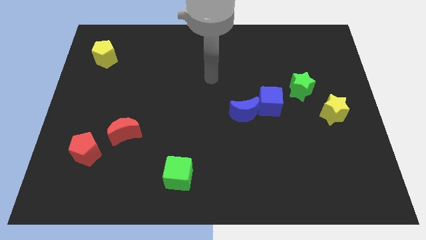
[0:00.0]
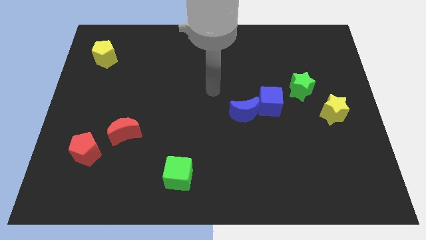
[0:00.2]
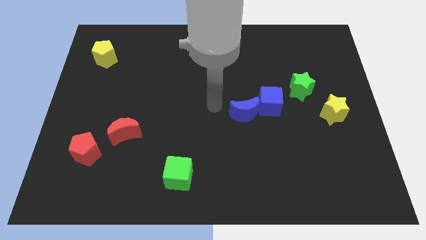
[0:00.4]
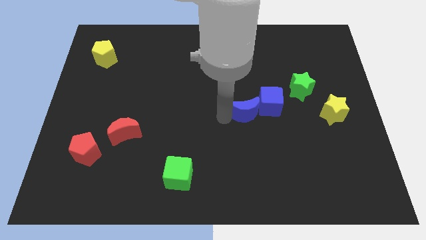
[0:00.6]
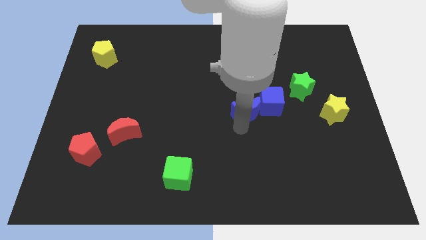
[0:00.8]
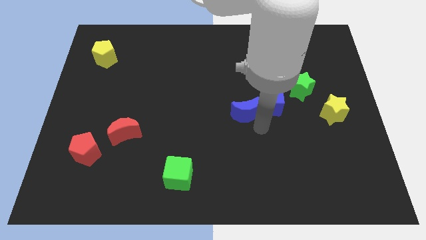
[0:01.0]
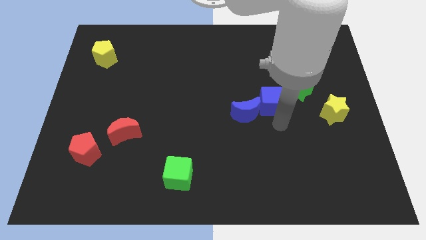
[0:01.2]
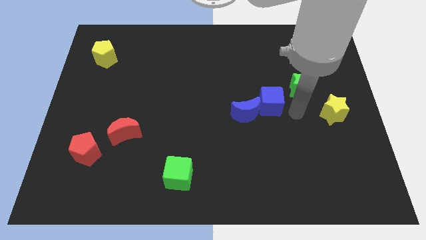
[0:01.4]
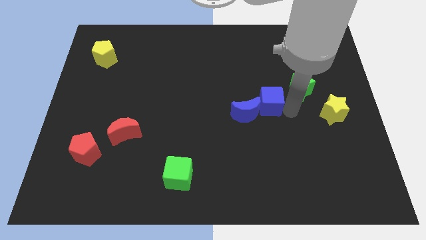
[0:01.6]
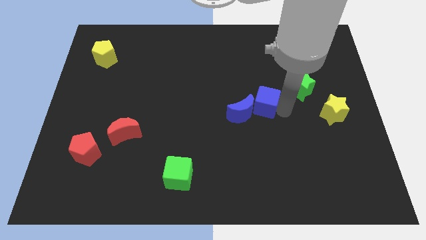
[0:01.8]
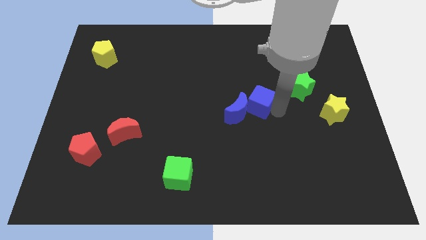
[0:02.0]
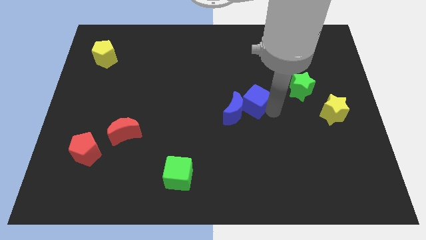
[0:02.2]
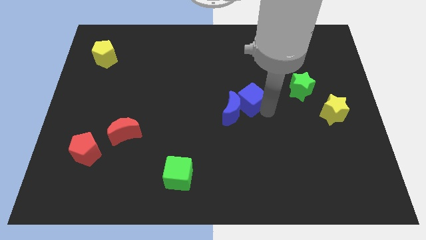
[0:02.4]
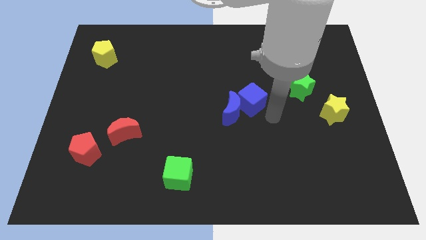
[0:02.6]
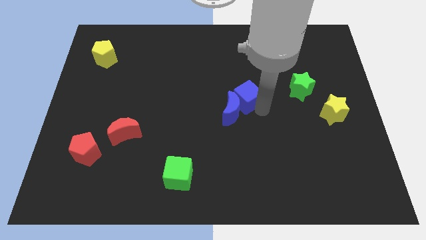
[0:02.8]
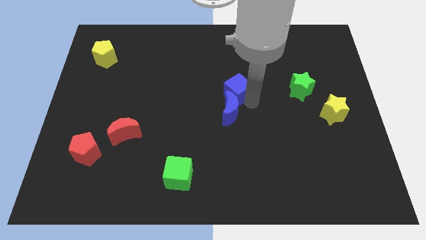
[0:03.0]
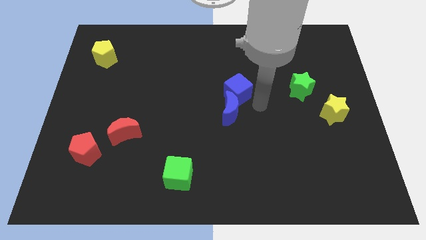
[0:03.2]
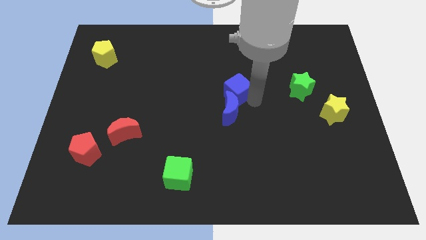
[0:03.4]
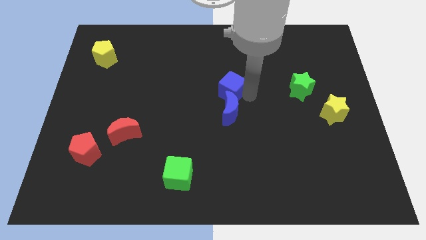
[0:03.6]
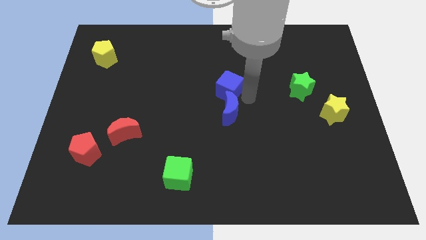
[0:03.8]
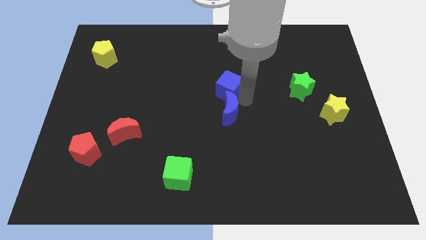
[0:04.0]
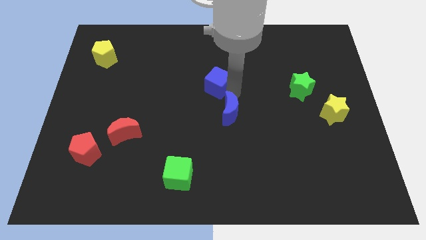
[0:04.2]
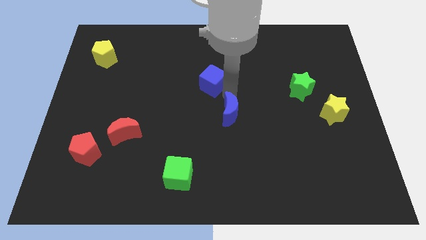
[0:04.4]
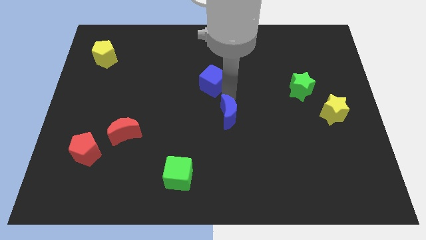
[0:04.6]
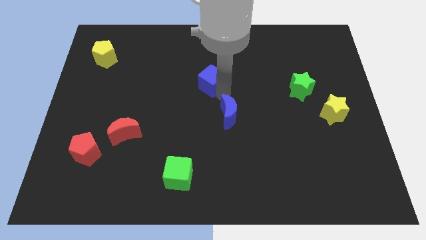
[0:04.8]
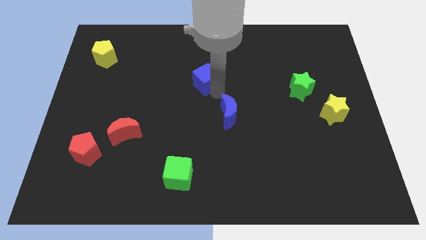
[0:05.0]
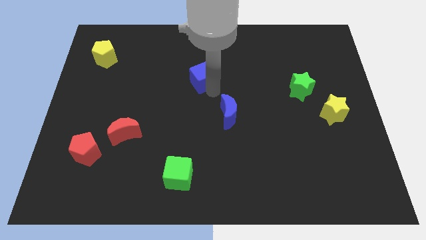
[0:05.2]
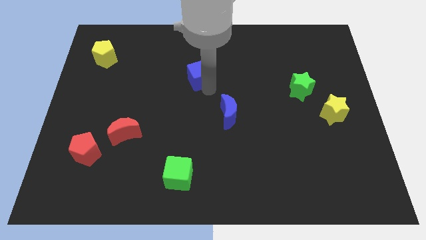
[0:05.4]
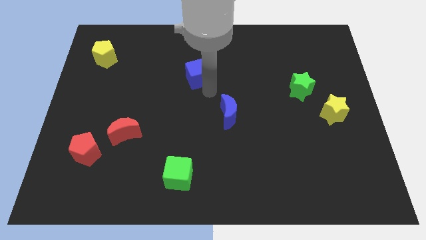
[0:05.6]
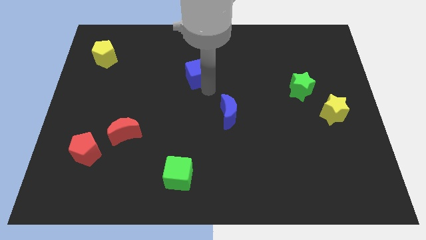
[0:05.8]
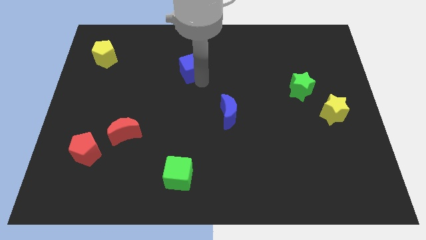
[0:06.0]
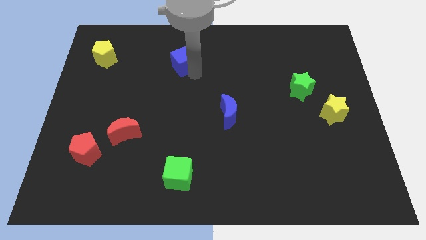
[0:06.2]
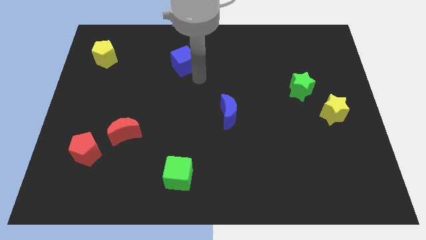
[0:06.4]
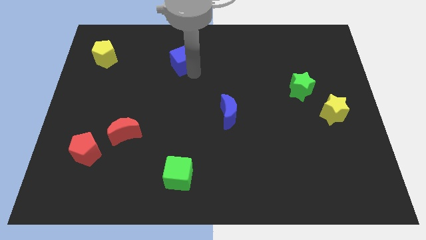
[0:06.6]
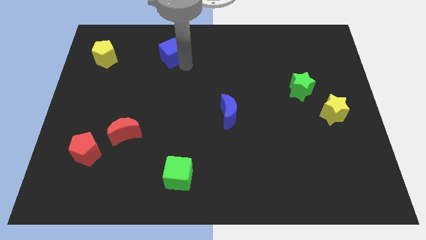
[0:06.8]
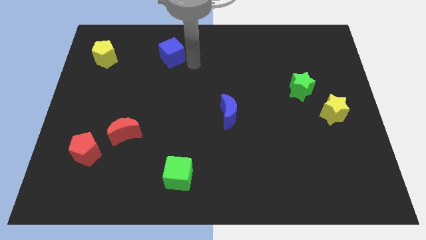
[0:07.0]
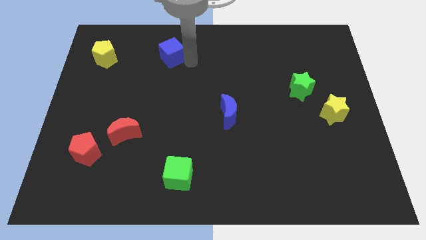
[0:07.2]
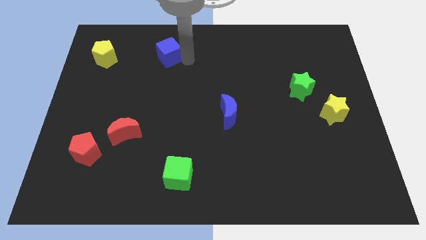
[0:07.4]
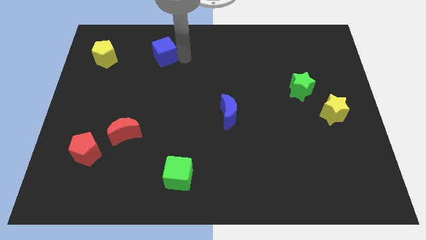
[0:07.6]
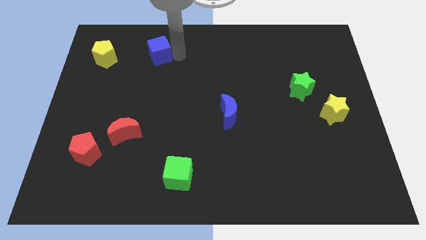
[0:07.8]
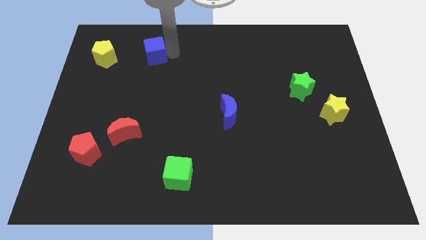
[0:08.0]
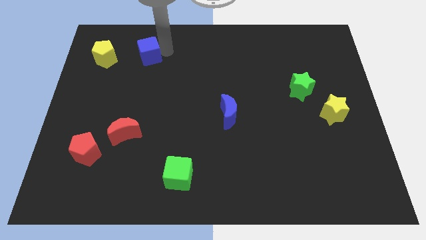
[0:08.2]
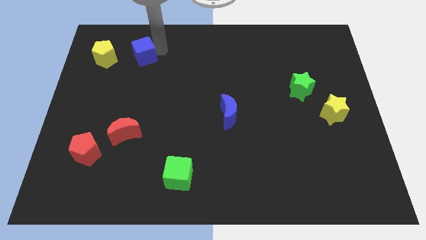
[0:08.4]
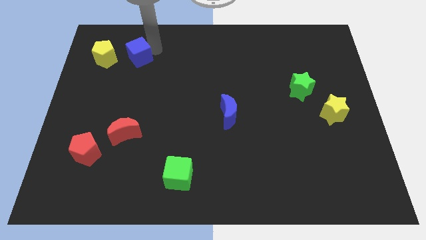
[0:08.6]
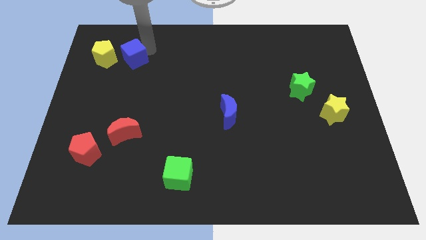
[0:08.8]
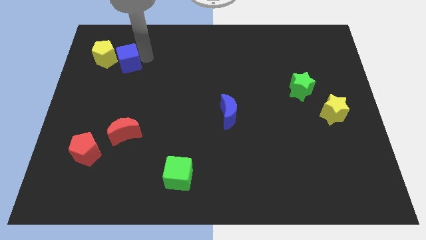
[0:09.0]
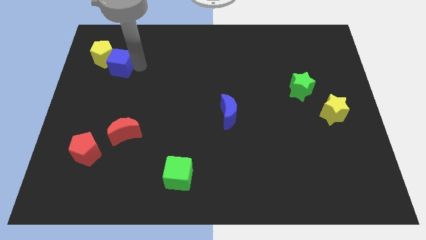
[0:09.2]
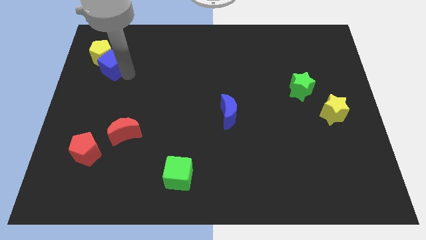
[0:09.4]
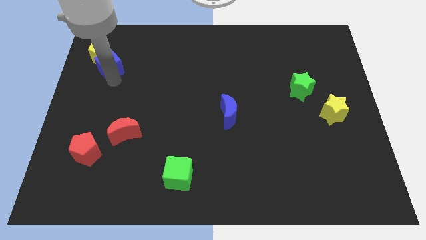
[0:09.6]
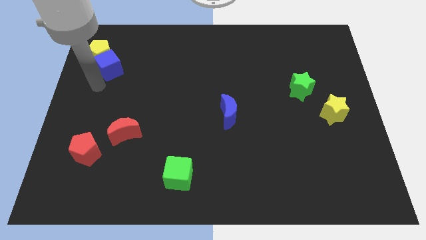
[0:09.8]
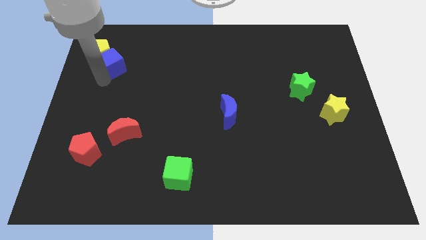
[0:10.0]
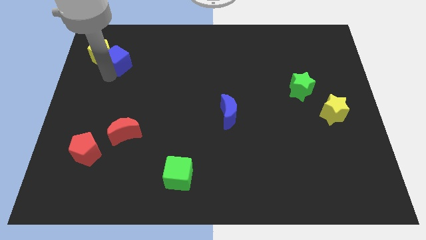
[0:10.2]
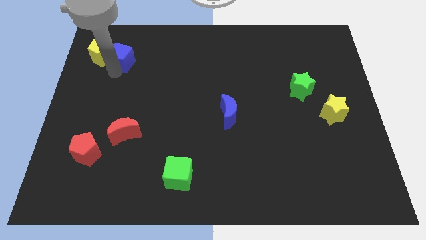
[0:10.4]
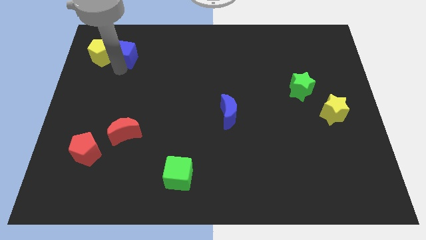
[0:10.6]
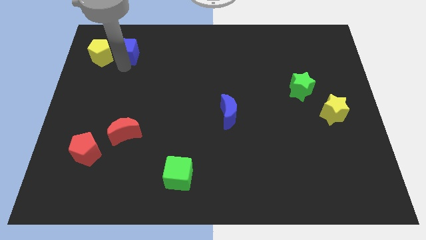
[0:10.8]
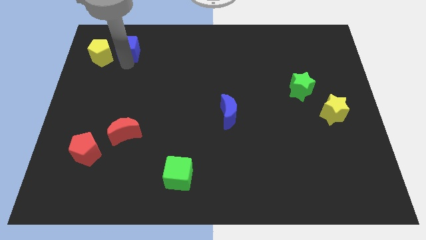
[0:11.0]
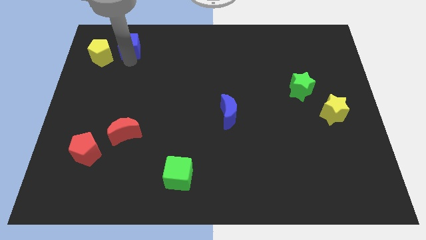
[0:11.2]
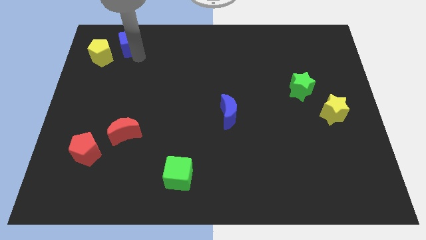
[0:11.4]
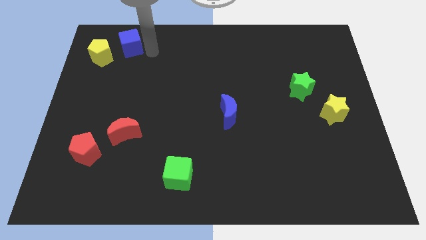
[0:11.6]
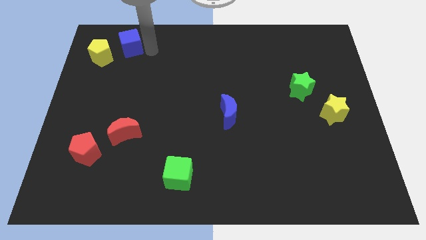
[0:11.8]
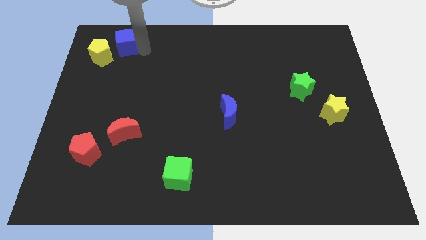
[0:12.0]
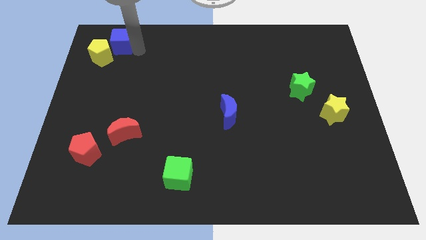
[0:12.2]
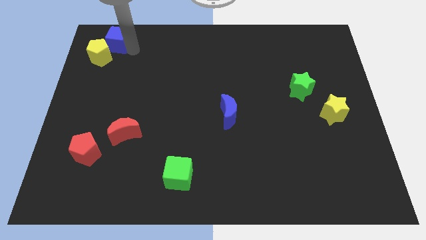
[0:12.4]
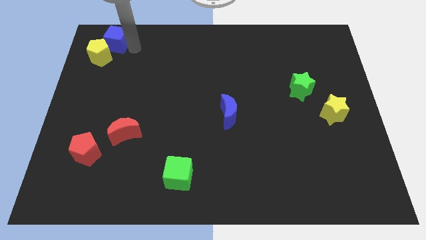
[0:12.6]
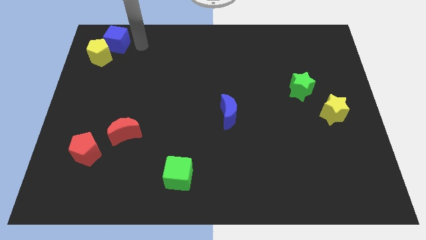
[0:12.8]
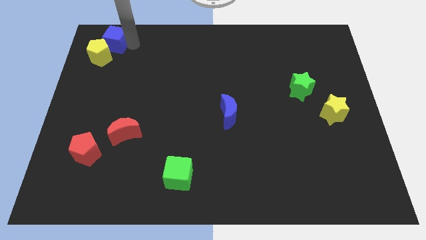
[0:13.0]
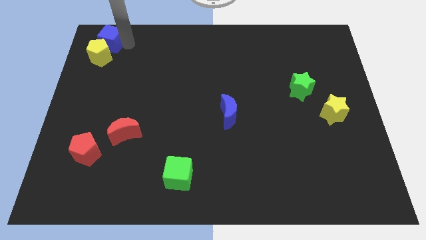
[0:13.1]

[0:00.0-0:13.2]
slide the blue cube to the upper left corner

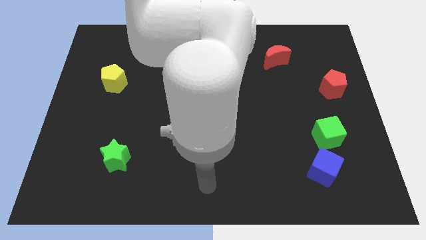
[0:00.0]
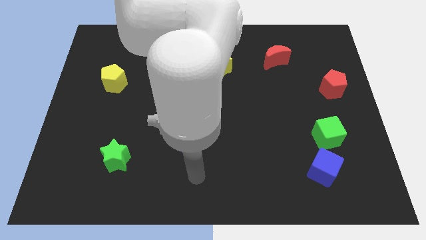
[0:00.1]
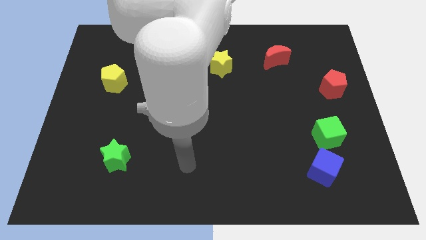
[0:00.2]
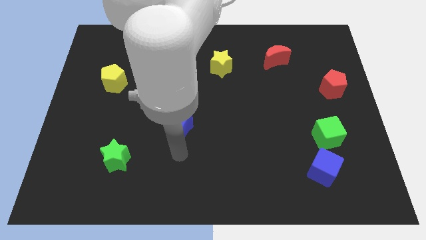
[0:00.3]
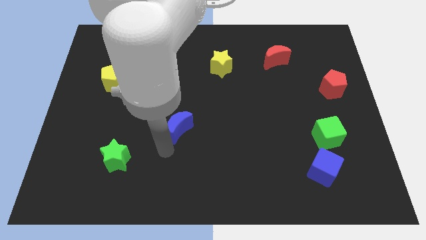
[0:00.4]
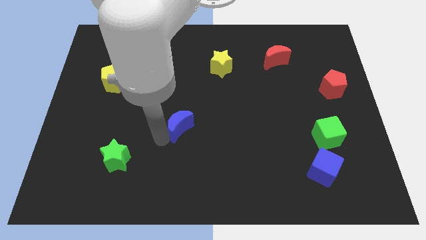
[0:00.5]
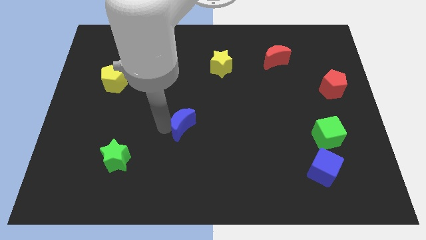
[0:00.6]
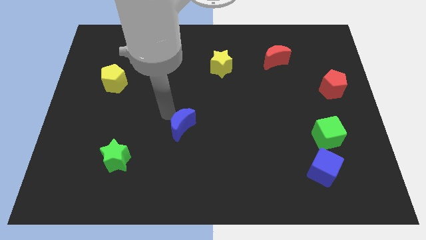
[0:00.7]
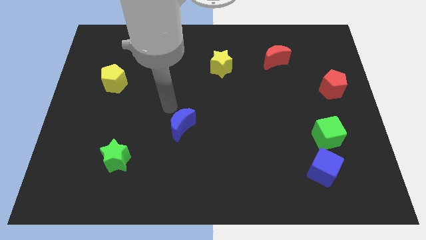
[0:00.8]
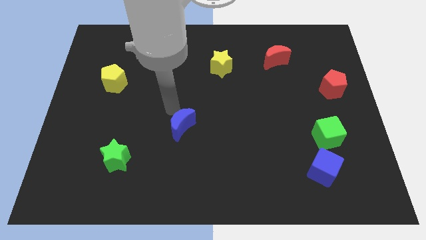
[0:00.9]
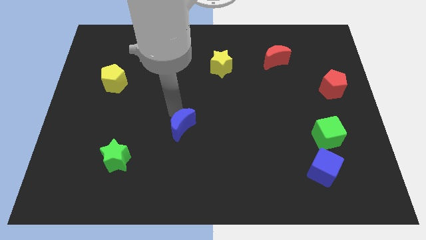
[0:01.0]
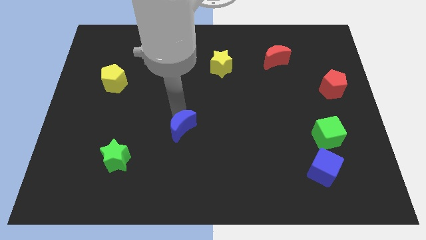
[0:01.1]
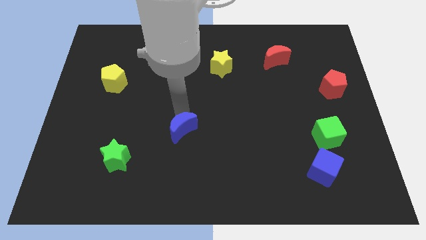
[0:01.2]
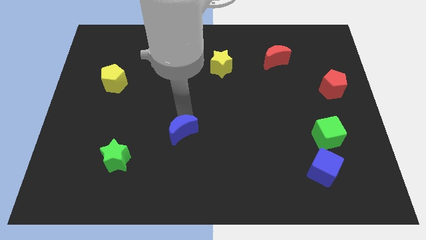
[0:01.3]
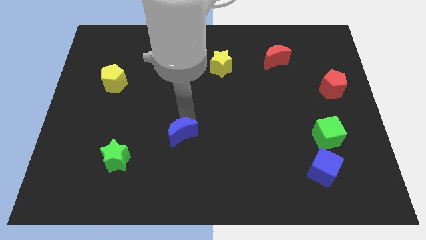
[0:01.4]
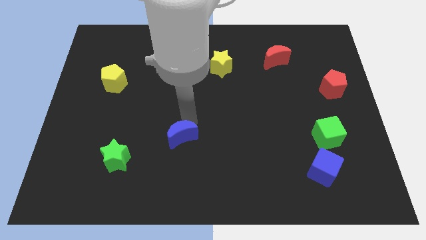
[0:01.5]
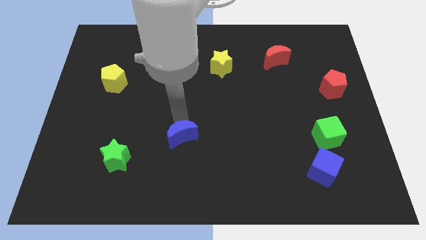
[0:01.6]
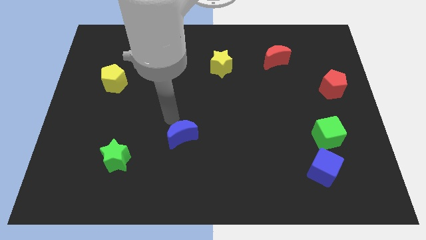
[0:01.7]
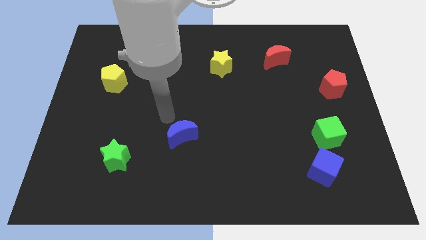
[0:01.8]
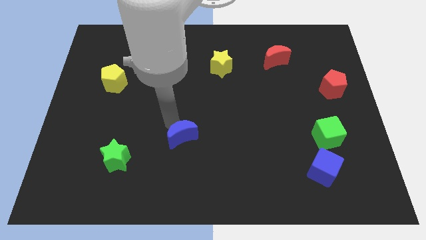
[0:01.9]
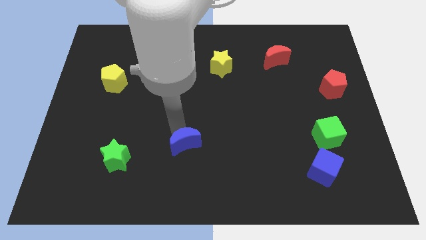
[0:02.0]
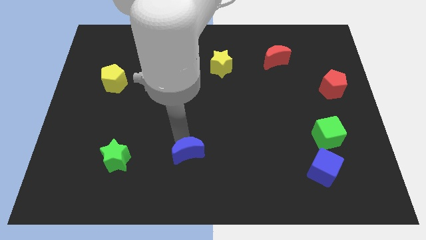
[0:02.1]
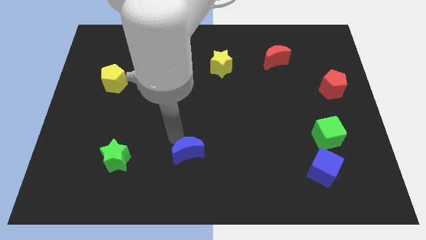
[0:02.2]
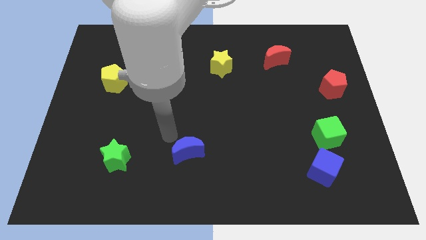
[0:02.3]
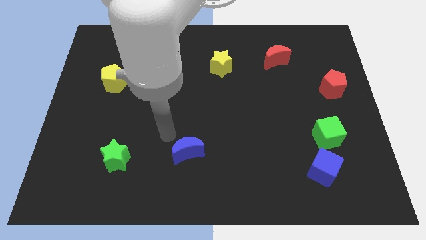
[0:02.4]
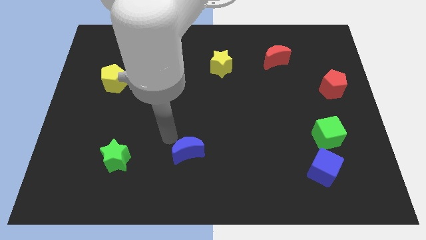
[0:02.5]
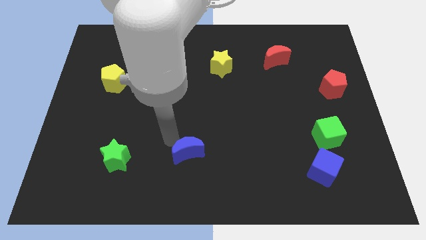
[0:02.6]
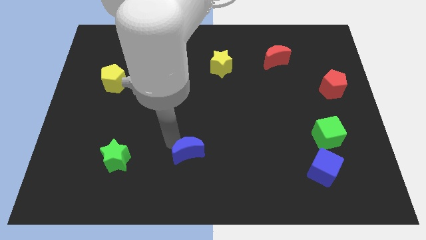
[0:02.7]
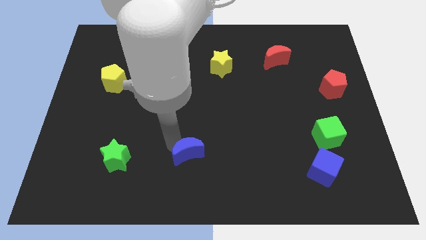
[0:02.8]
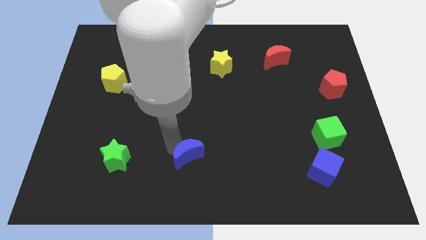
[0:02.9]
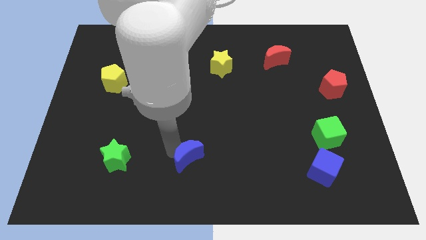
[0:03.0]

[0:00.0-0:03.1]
slide the blue moon to the bottom side
